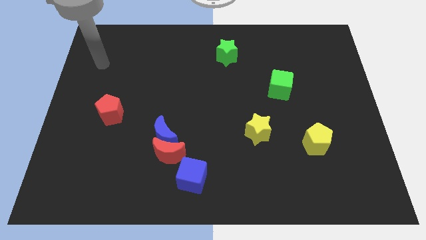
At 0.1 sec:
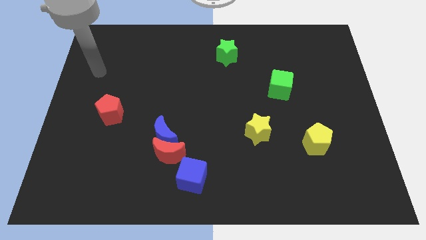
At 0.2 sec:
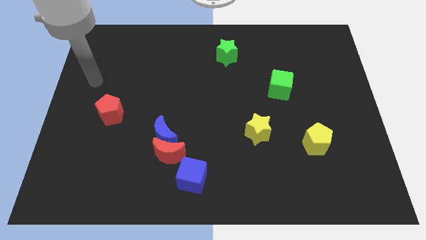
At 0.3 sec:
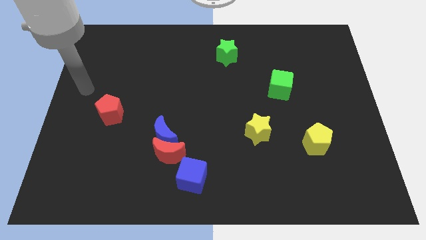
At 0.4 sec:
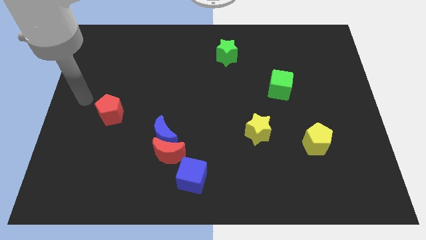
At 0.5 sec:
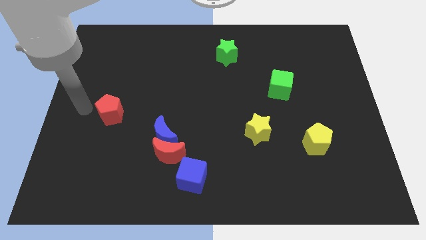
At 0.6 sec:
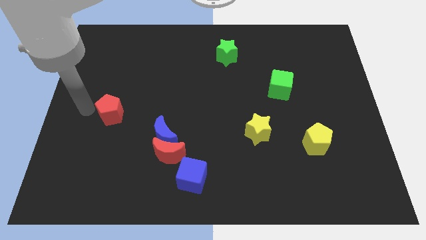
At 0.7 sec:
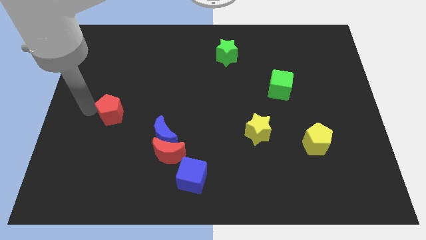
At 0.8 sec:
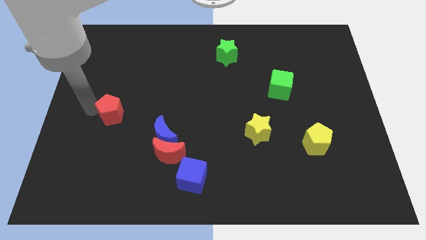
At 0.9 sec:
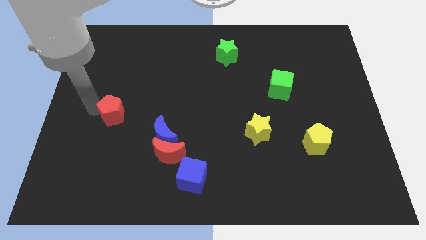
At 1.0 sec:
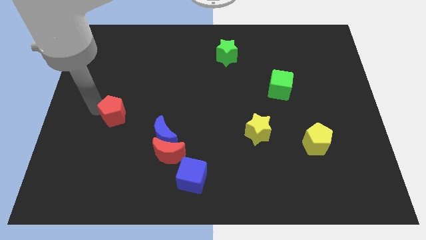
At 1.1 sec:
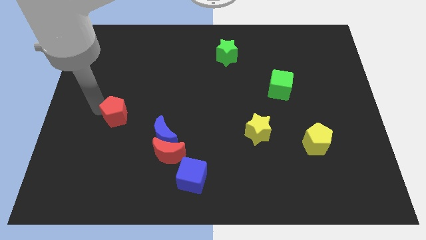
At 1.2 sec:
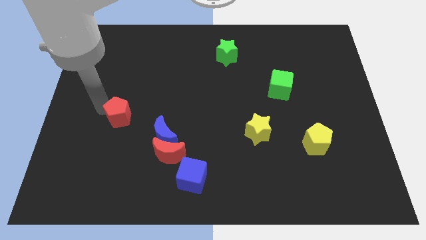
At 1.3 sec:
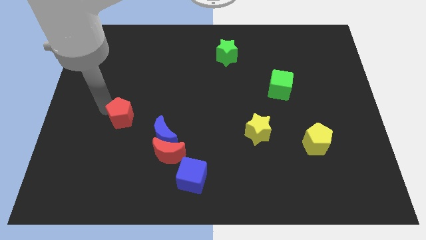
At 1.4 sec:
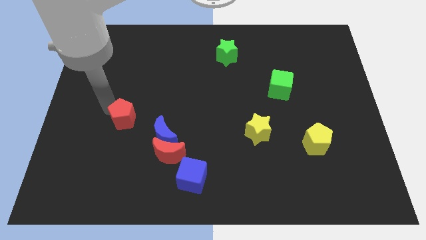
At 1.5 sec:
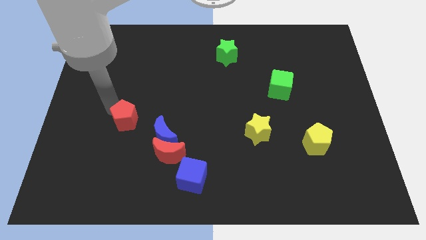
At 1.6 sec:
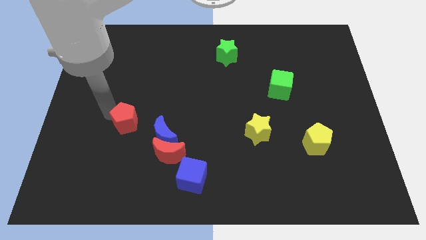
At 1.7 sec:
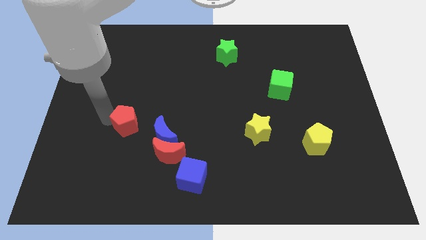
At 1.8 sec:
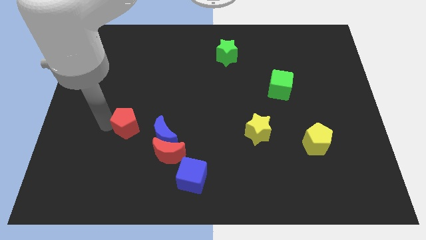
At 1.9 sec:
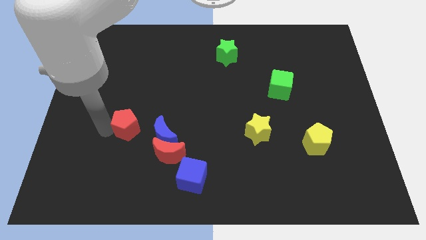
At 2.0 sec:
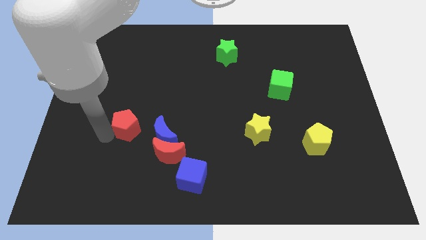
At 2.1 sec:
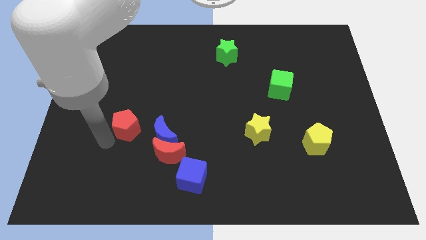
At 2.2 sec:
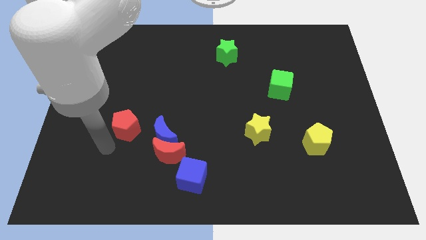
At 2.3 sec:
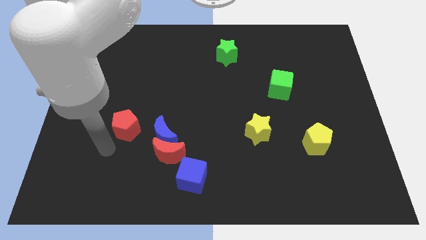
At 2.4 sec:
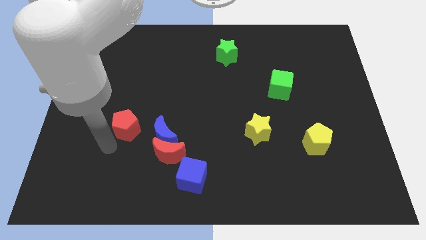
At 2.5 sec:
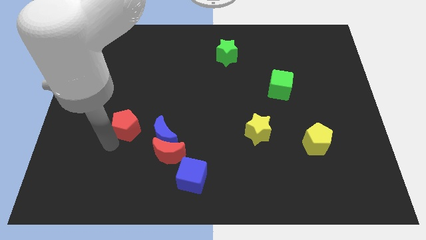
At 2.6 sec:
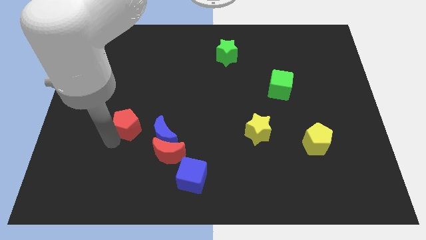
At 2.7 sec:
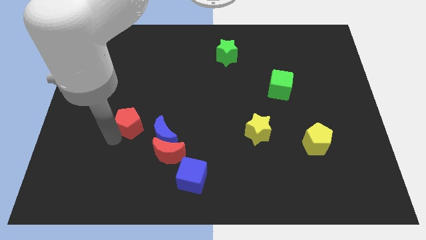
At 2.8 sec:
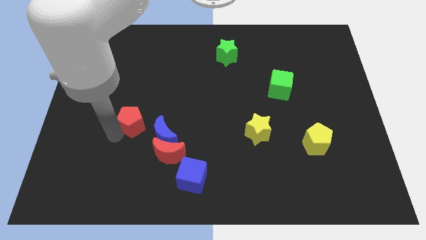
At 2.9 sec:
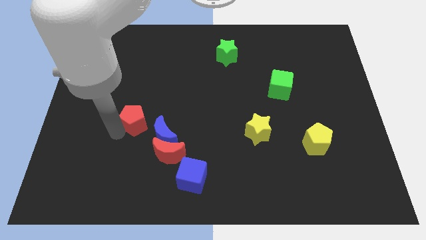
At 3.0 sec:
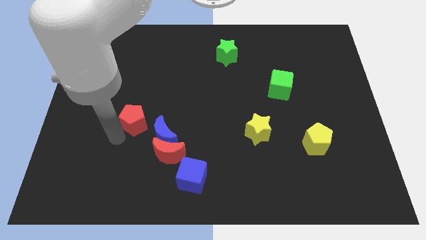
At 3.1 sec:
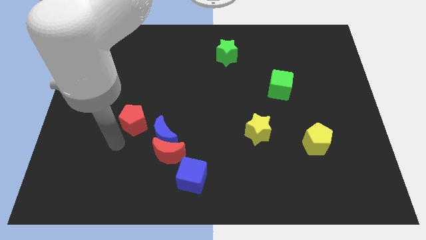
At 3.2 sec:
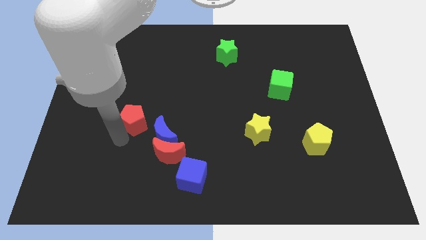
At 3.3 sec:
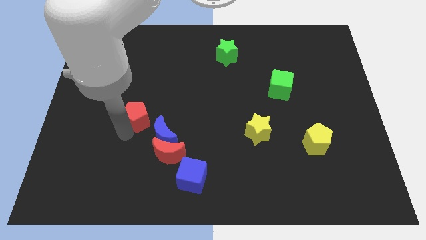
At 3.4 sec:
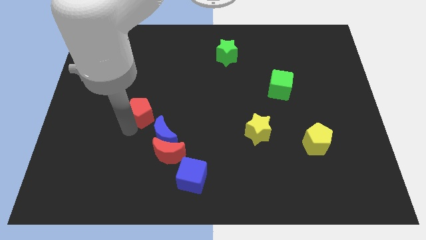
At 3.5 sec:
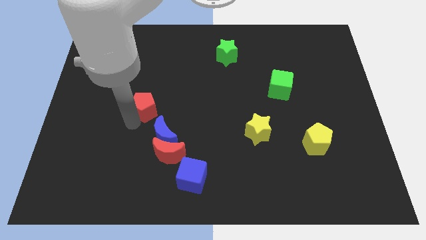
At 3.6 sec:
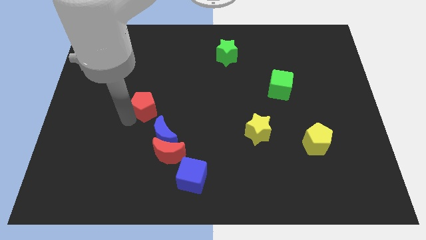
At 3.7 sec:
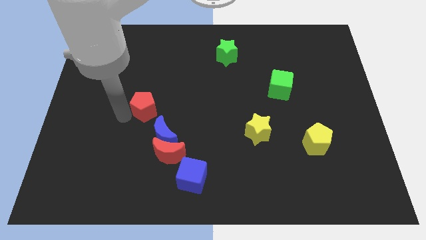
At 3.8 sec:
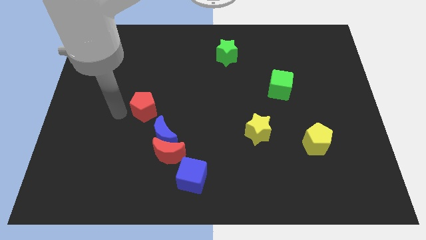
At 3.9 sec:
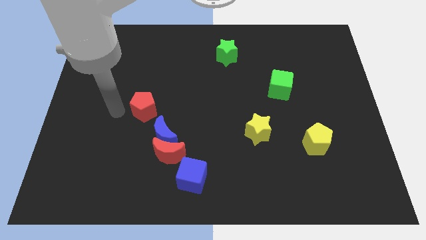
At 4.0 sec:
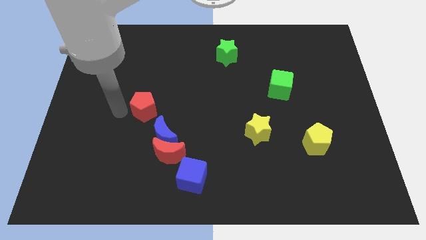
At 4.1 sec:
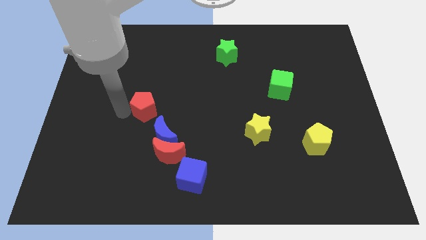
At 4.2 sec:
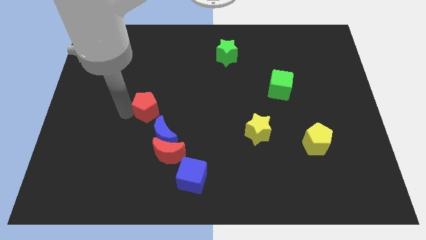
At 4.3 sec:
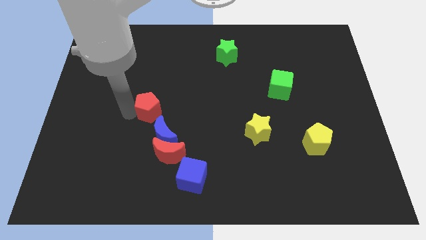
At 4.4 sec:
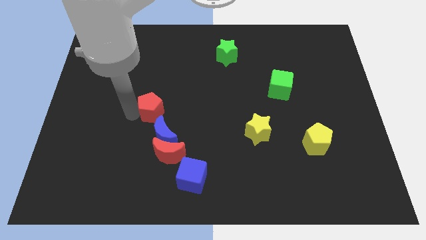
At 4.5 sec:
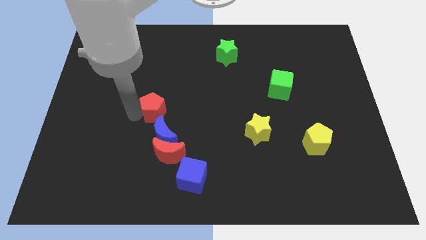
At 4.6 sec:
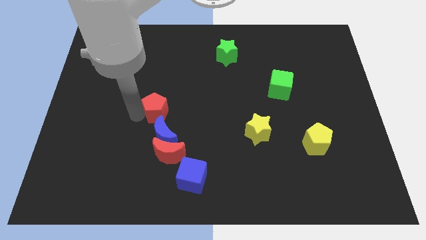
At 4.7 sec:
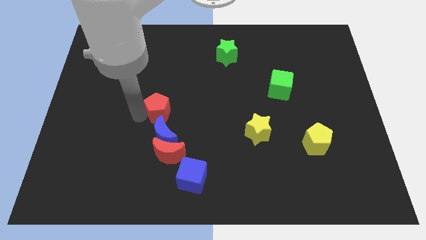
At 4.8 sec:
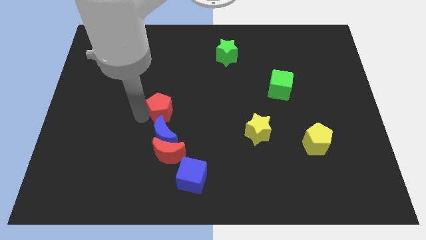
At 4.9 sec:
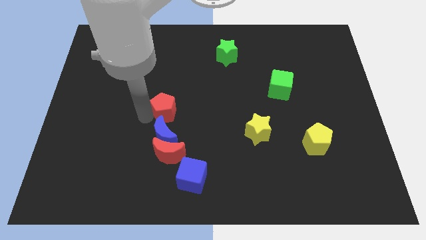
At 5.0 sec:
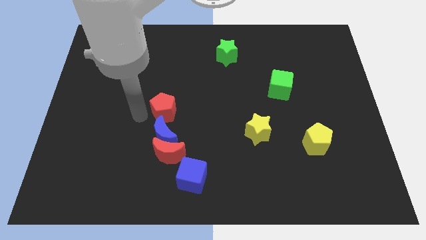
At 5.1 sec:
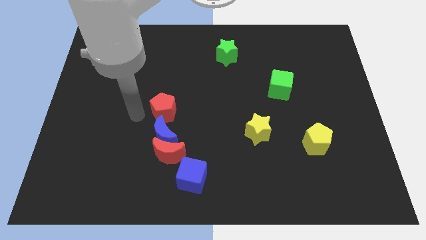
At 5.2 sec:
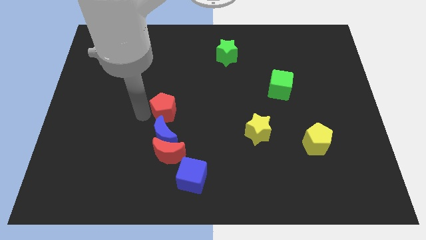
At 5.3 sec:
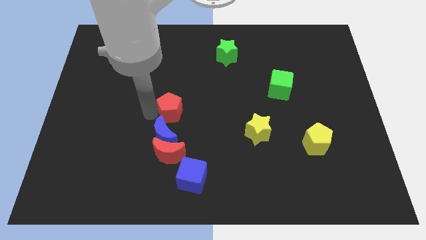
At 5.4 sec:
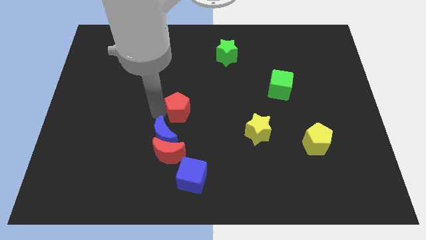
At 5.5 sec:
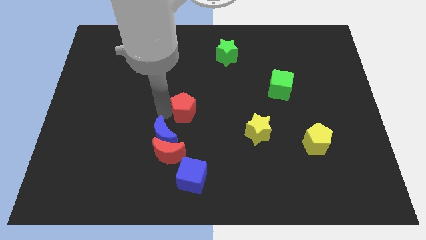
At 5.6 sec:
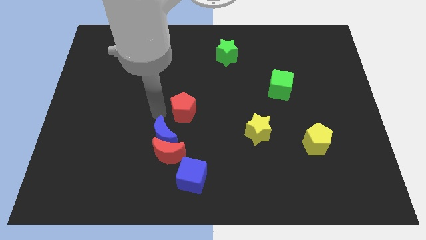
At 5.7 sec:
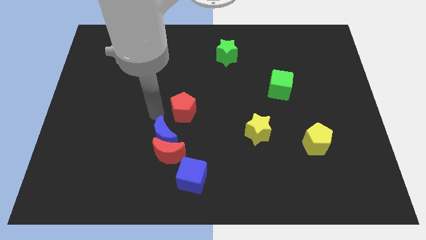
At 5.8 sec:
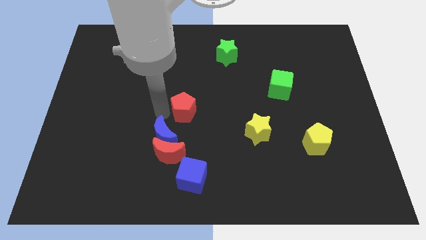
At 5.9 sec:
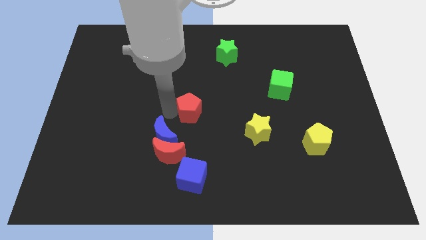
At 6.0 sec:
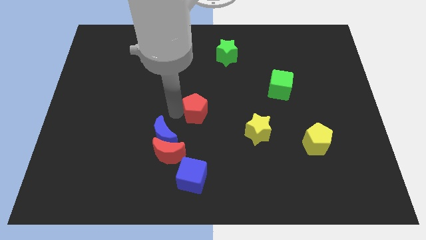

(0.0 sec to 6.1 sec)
move the red pentagon right

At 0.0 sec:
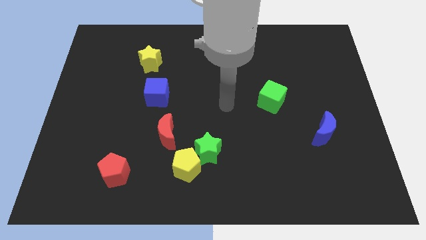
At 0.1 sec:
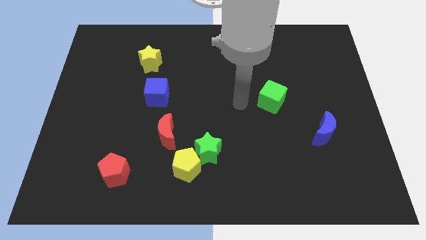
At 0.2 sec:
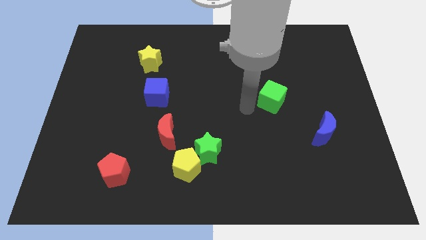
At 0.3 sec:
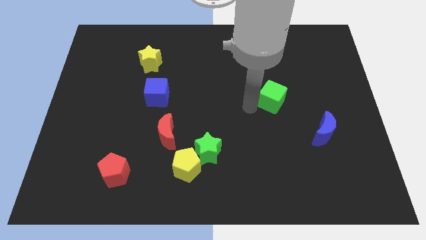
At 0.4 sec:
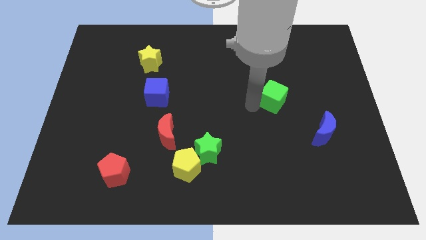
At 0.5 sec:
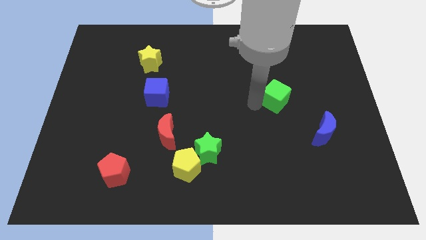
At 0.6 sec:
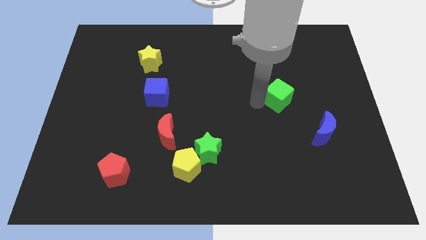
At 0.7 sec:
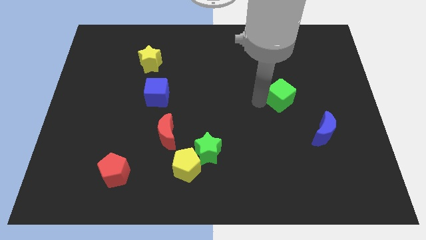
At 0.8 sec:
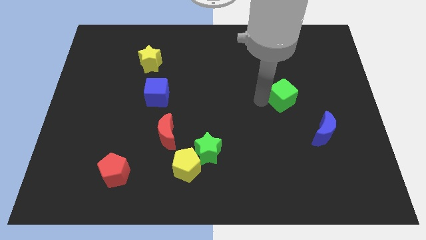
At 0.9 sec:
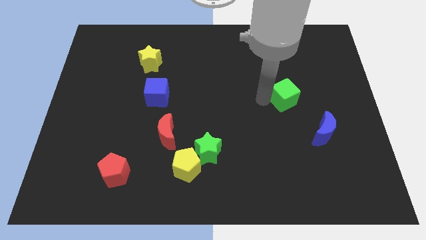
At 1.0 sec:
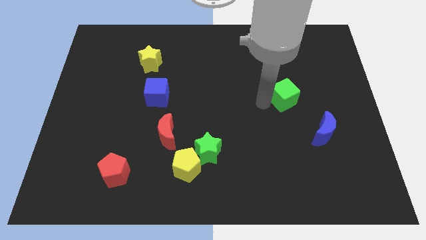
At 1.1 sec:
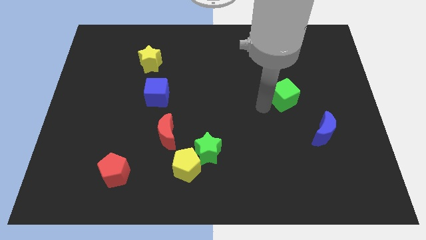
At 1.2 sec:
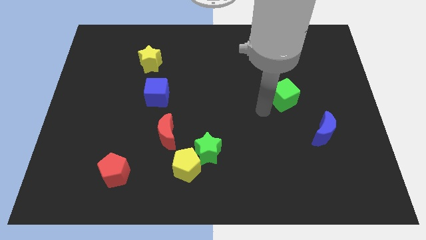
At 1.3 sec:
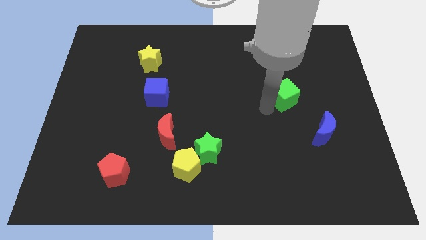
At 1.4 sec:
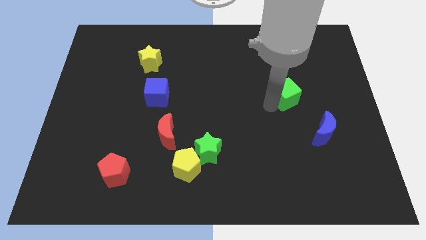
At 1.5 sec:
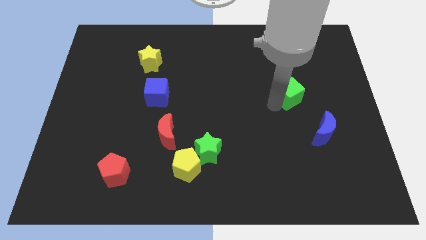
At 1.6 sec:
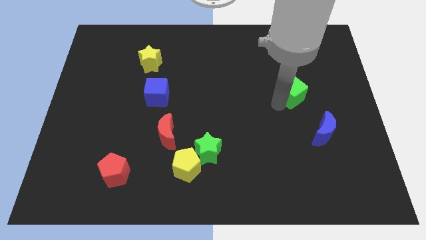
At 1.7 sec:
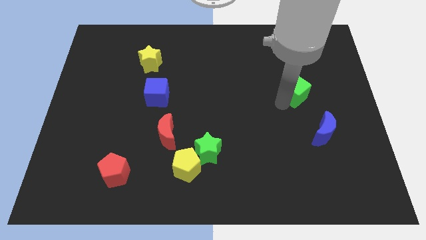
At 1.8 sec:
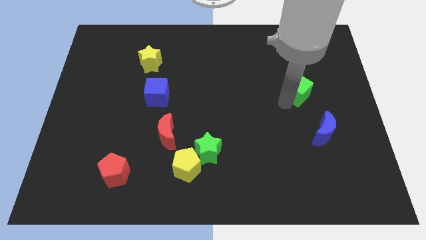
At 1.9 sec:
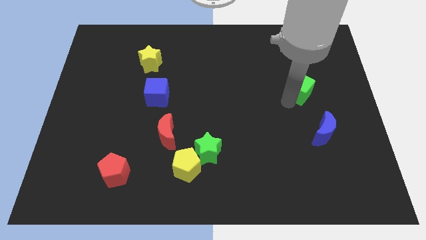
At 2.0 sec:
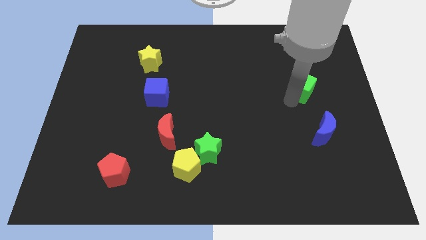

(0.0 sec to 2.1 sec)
slightly slide the green cube upwards and to the right
